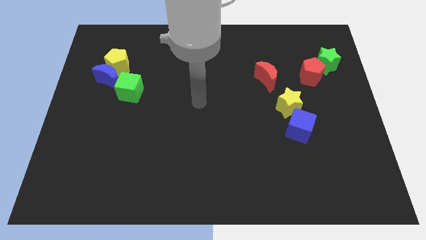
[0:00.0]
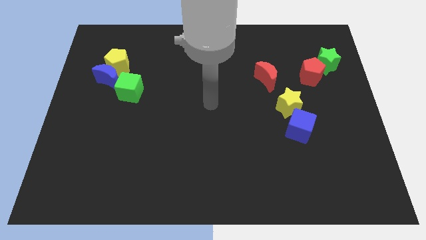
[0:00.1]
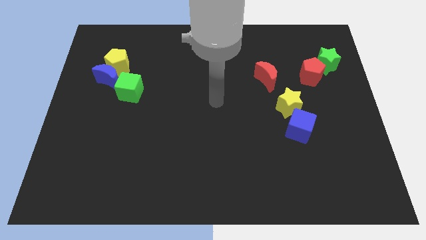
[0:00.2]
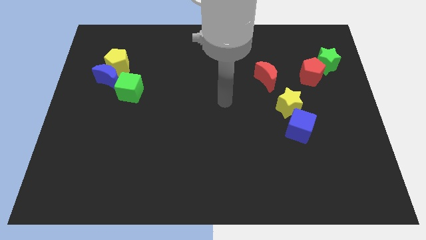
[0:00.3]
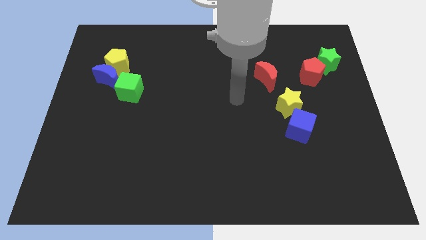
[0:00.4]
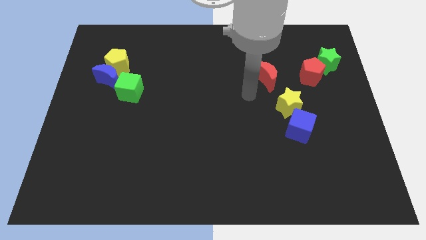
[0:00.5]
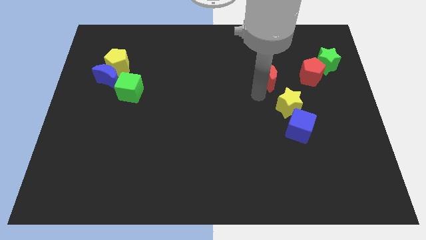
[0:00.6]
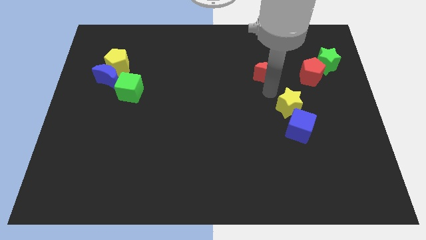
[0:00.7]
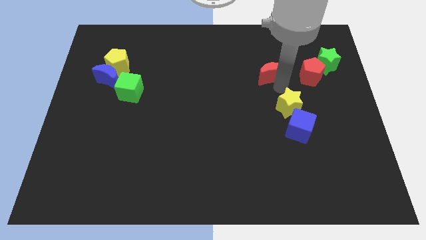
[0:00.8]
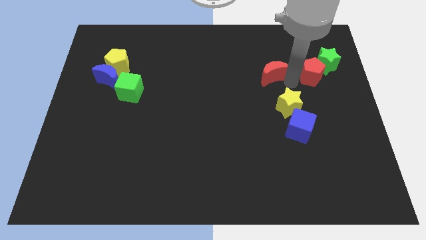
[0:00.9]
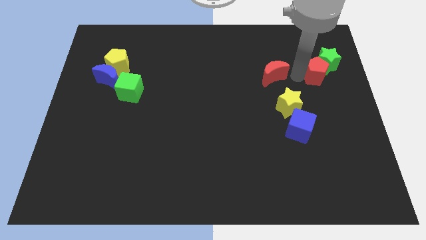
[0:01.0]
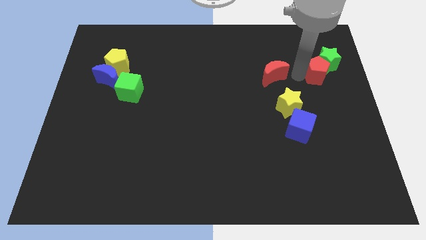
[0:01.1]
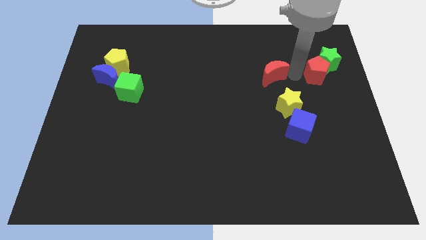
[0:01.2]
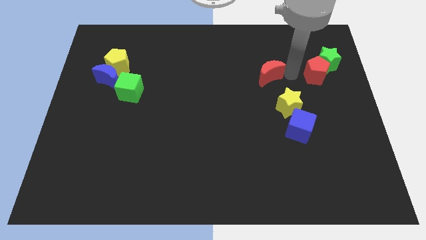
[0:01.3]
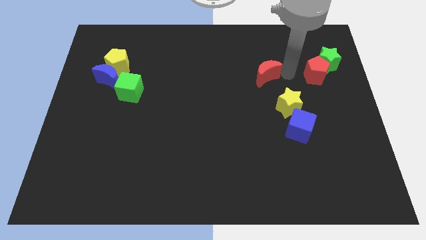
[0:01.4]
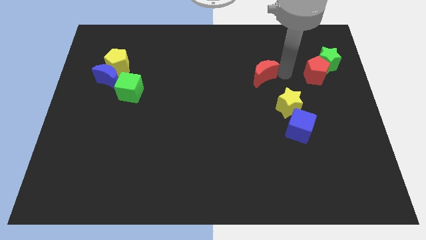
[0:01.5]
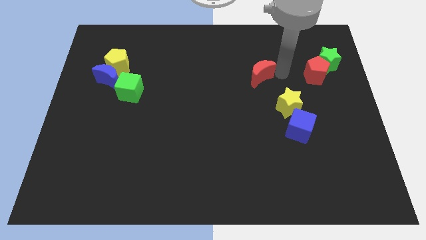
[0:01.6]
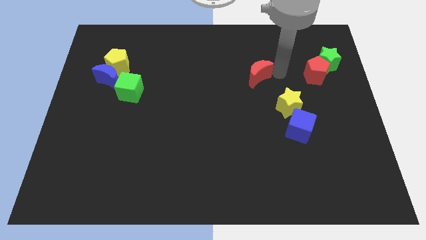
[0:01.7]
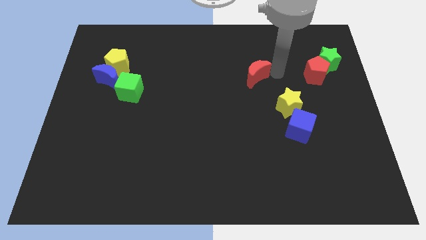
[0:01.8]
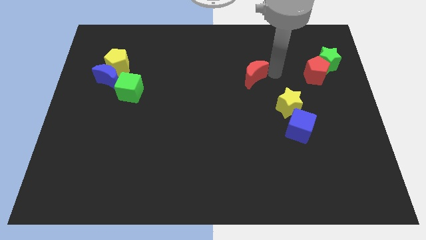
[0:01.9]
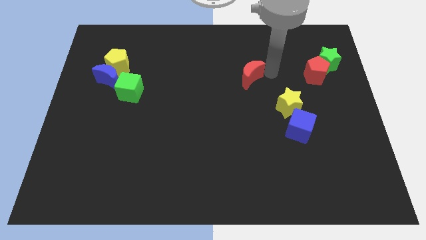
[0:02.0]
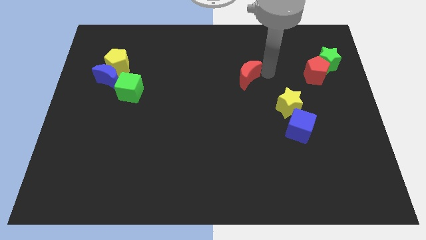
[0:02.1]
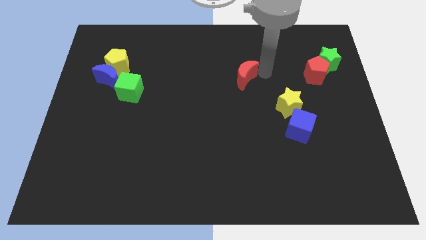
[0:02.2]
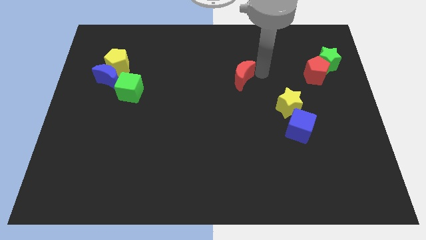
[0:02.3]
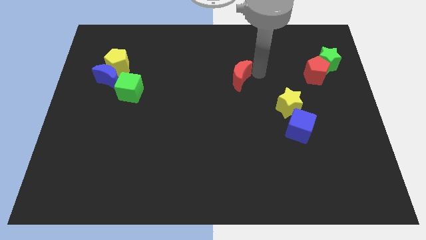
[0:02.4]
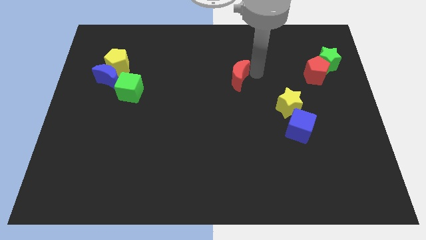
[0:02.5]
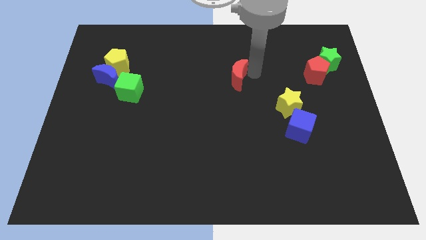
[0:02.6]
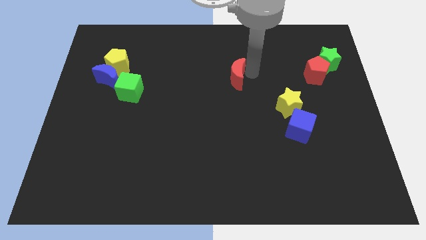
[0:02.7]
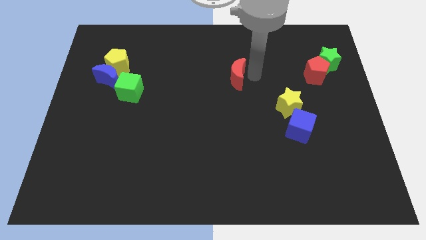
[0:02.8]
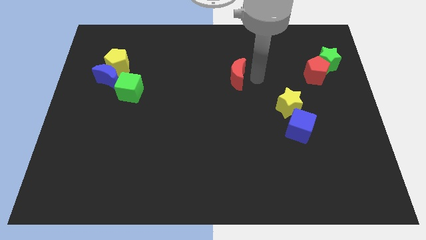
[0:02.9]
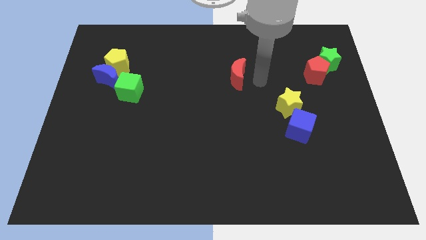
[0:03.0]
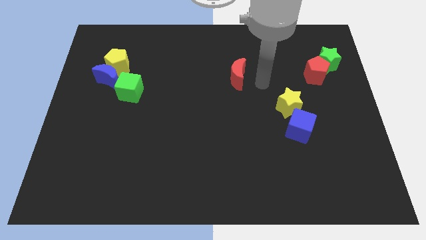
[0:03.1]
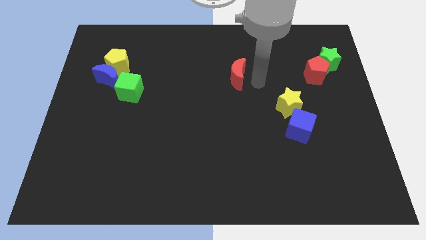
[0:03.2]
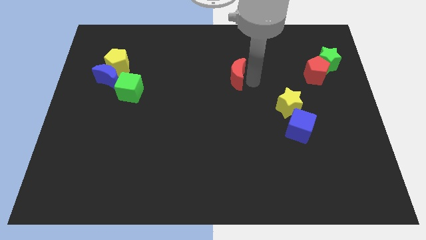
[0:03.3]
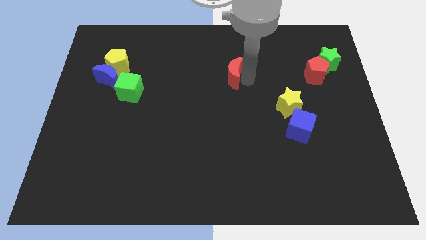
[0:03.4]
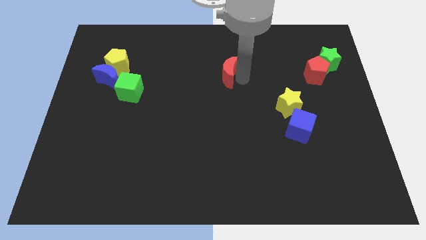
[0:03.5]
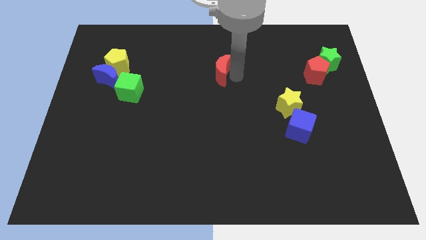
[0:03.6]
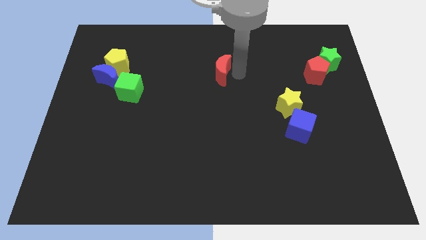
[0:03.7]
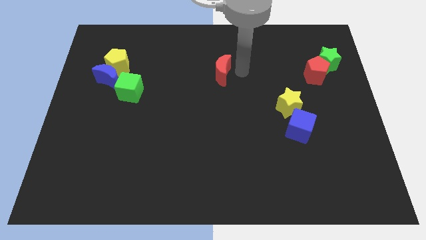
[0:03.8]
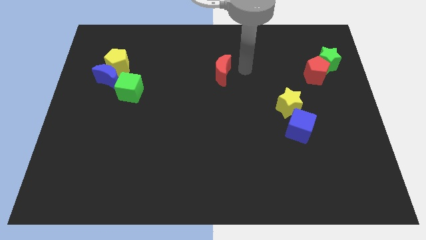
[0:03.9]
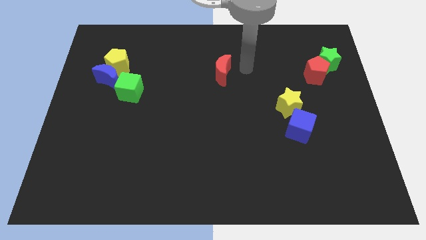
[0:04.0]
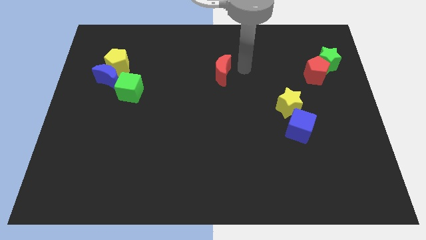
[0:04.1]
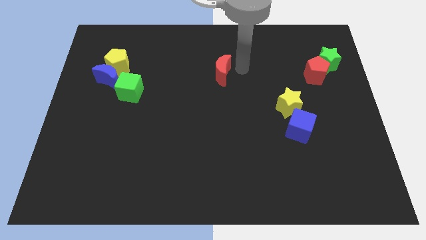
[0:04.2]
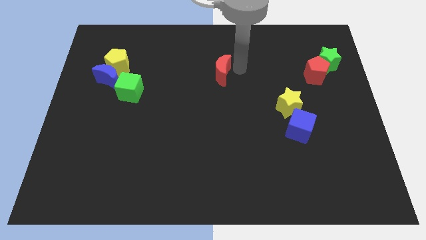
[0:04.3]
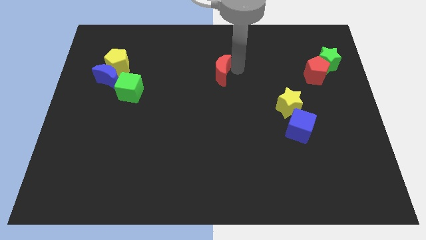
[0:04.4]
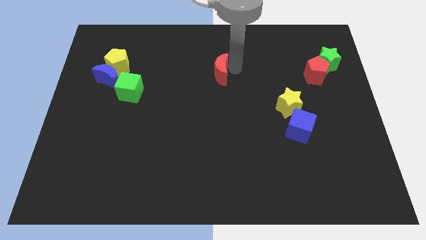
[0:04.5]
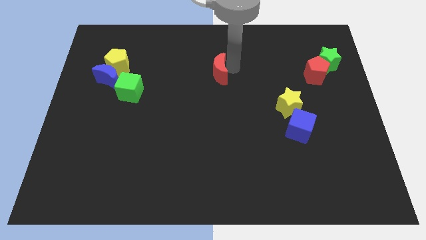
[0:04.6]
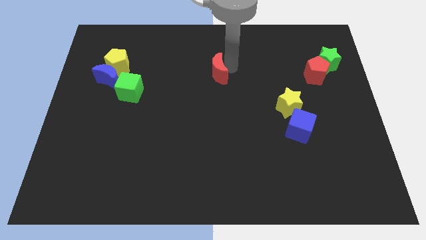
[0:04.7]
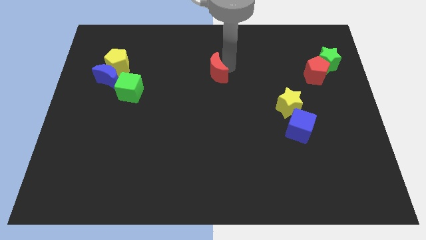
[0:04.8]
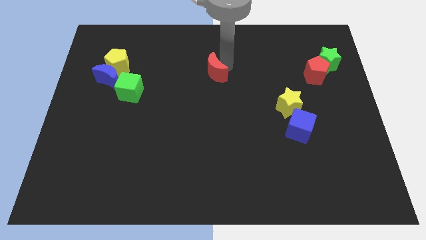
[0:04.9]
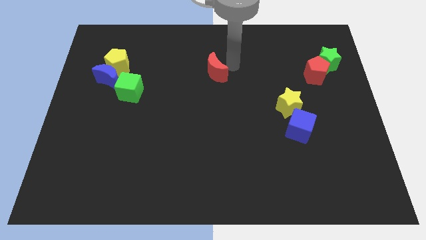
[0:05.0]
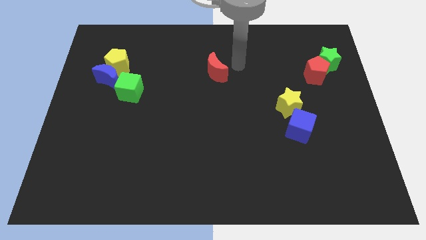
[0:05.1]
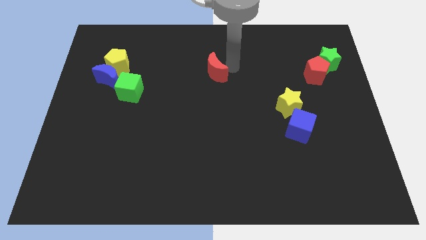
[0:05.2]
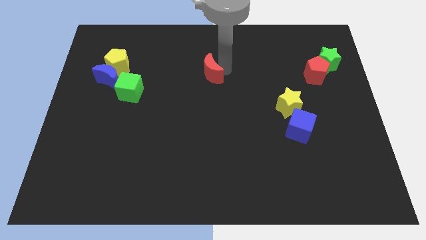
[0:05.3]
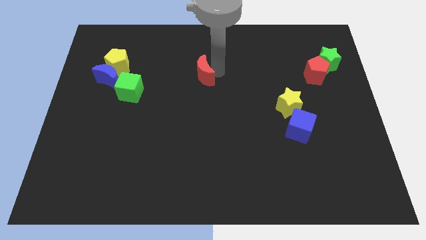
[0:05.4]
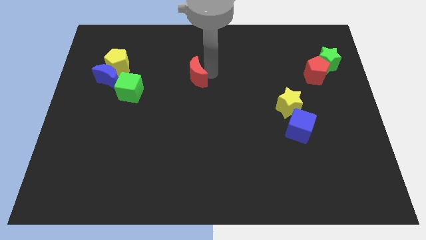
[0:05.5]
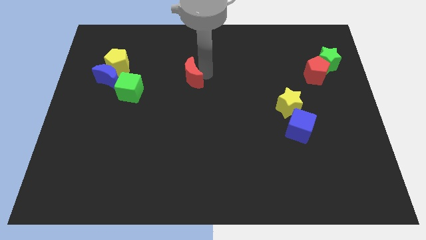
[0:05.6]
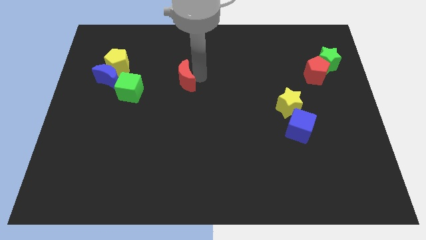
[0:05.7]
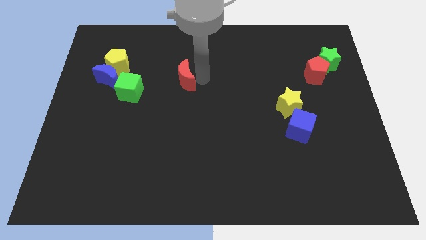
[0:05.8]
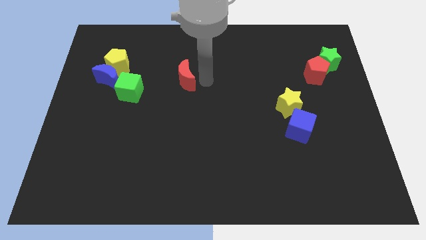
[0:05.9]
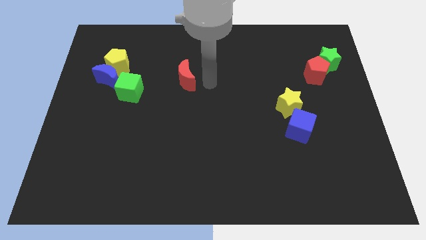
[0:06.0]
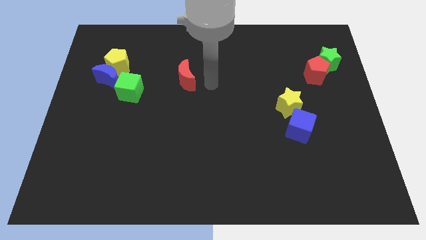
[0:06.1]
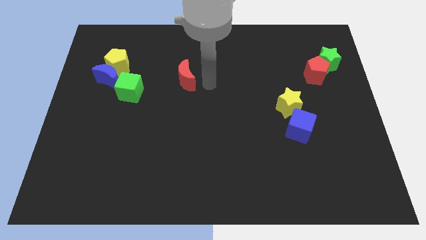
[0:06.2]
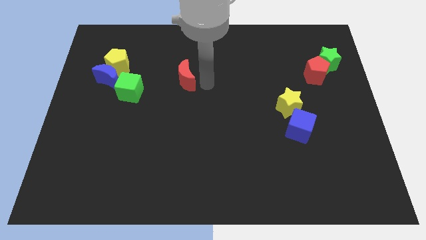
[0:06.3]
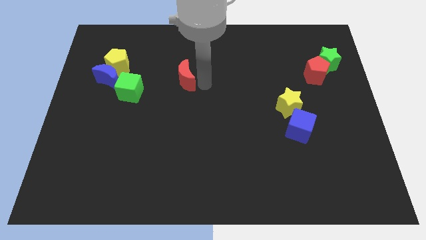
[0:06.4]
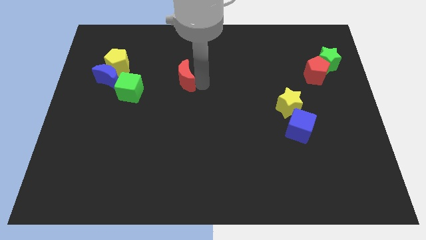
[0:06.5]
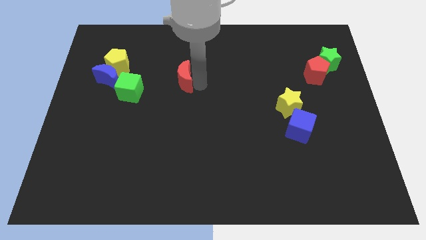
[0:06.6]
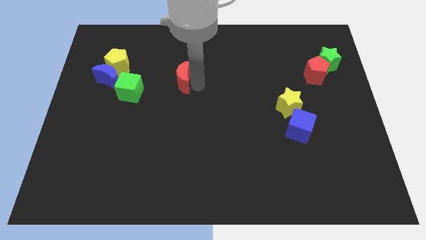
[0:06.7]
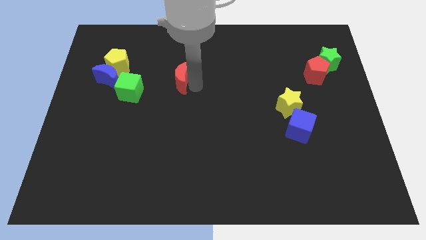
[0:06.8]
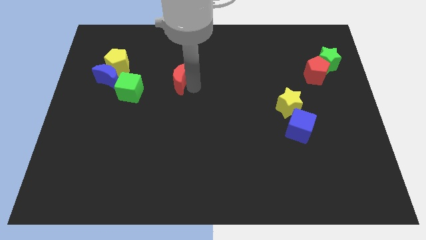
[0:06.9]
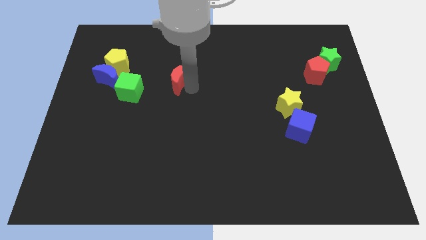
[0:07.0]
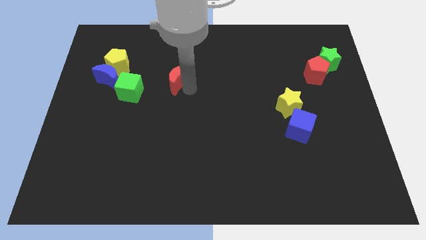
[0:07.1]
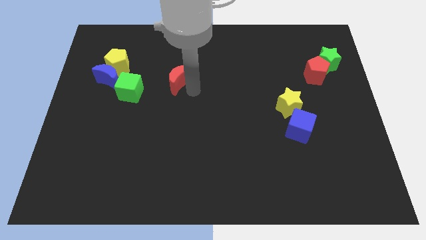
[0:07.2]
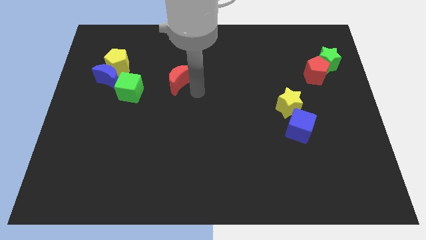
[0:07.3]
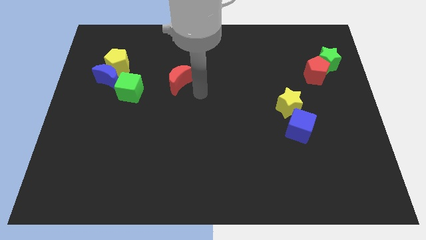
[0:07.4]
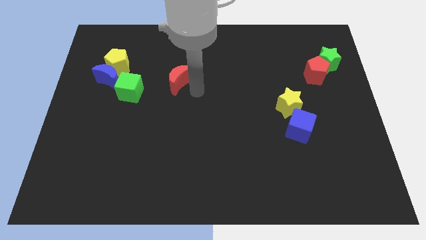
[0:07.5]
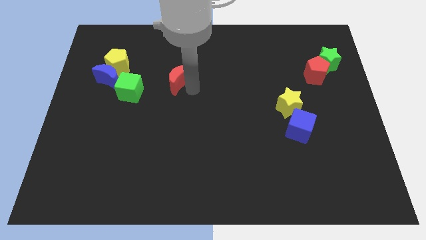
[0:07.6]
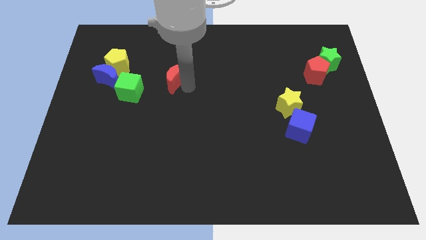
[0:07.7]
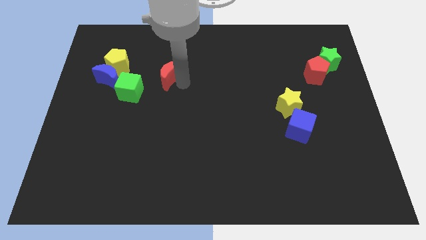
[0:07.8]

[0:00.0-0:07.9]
put the red moon to the top right side of the green cube
